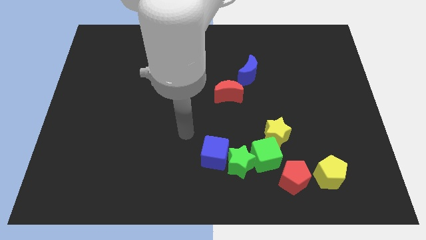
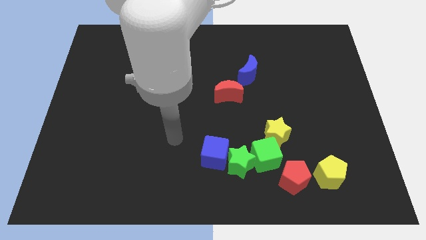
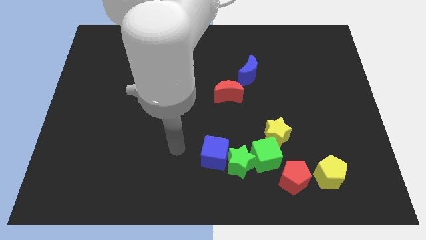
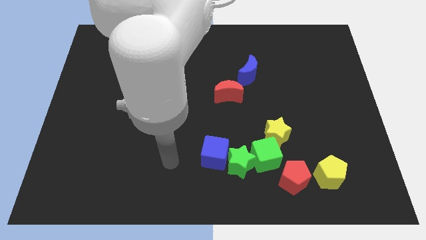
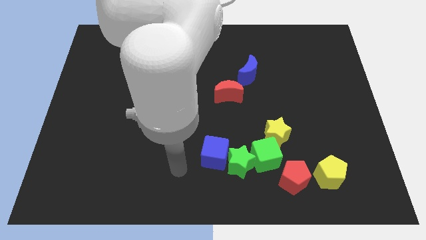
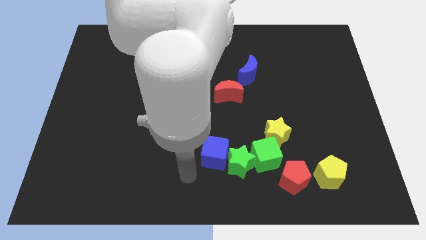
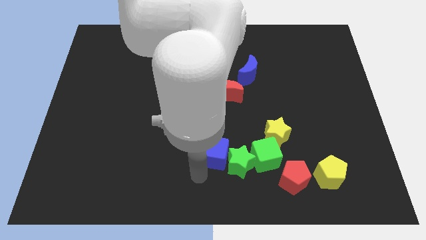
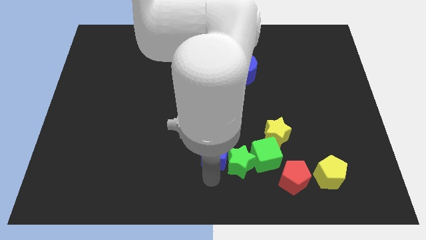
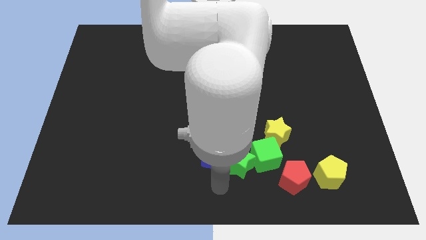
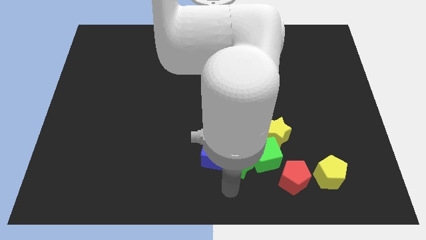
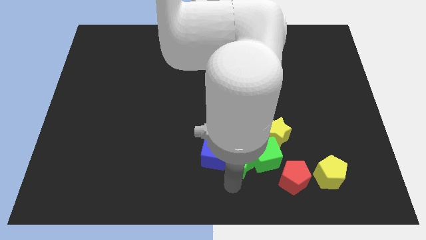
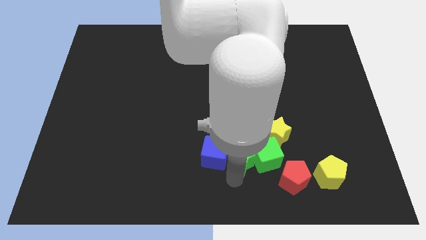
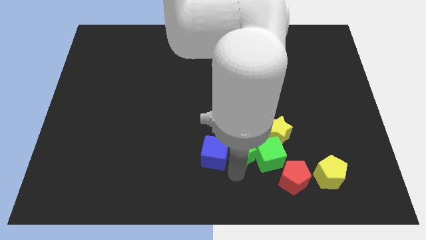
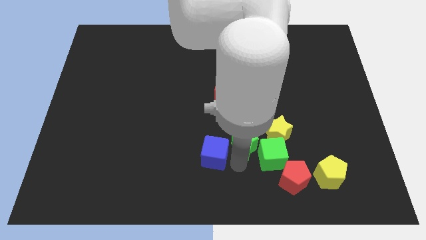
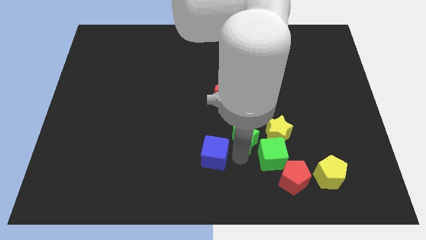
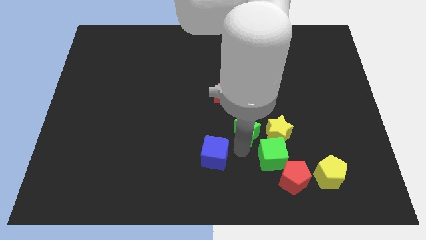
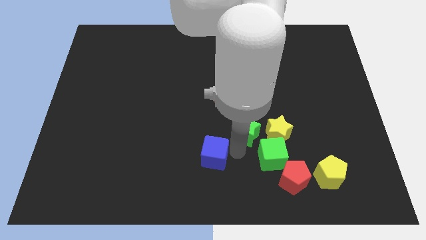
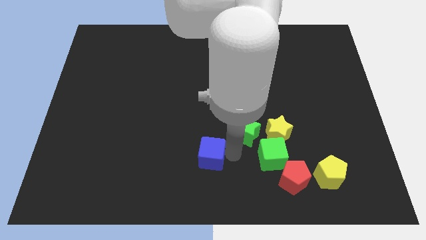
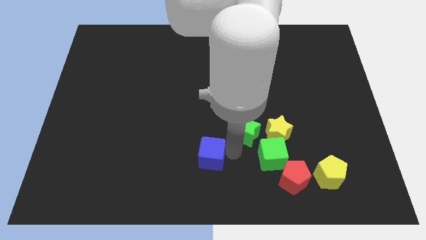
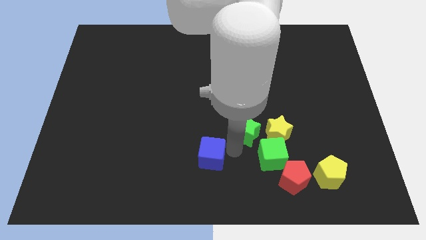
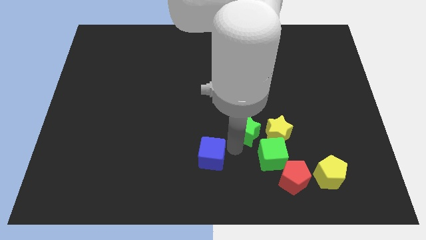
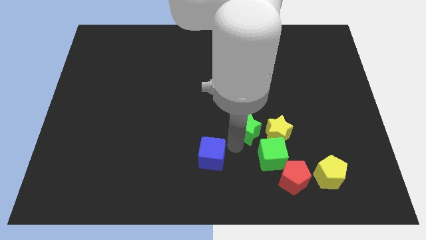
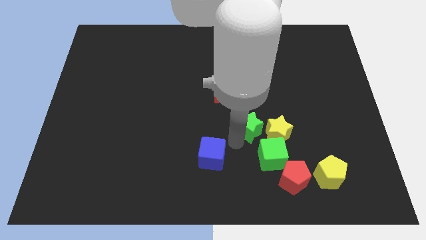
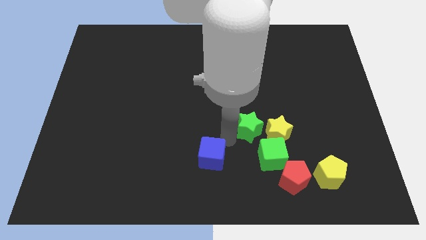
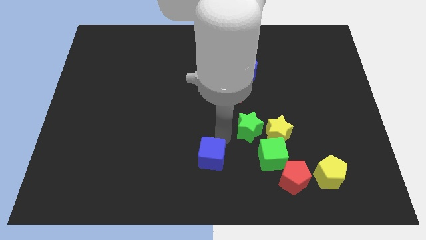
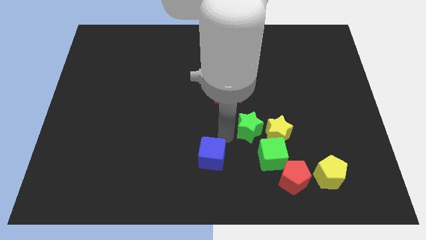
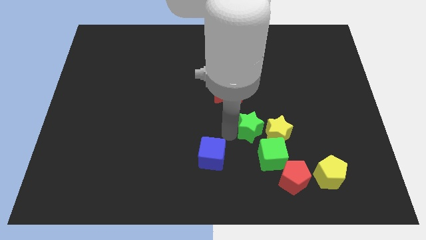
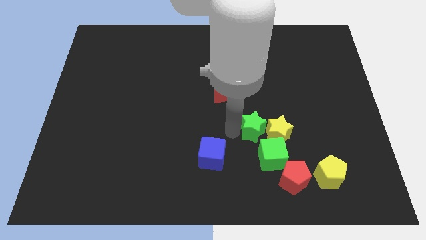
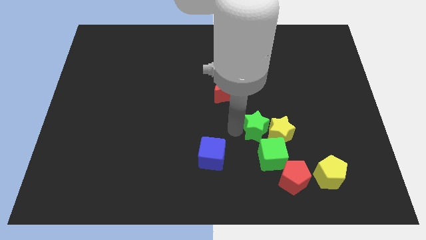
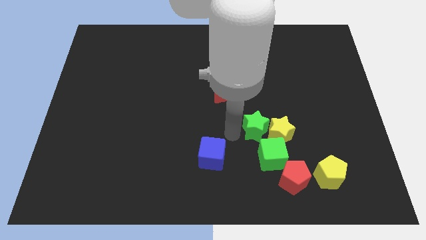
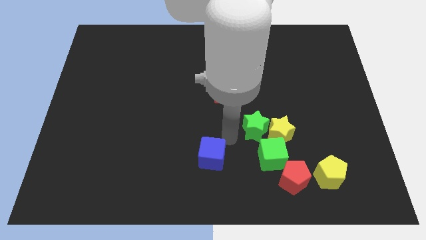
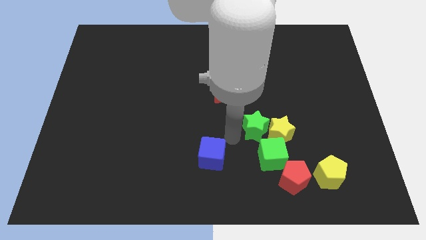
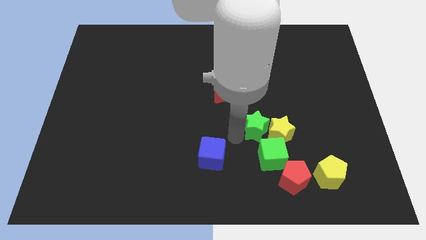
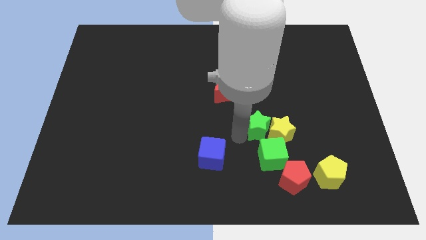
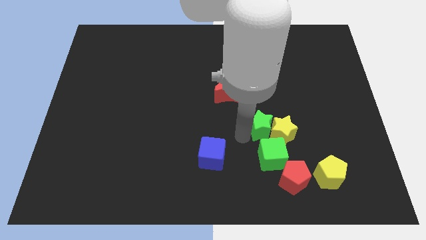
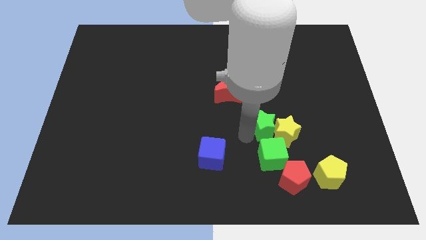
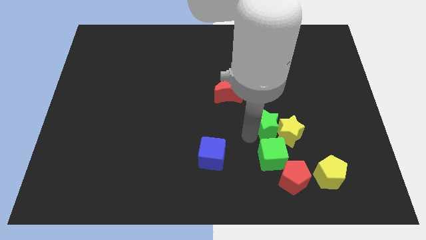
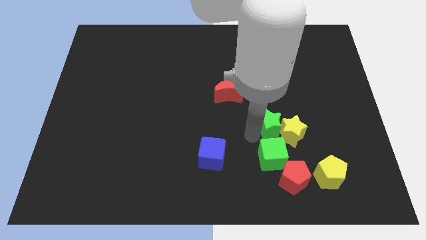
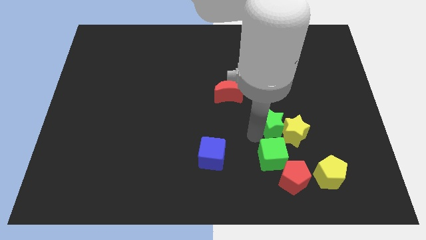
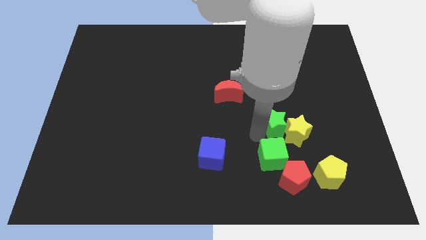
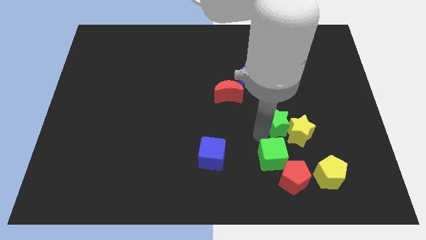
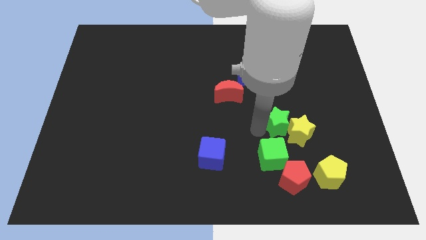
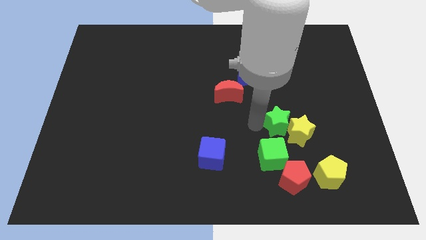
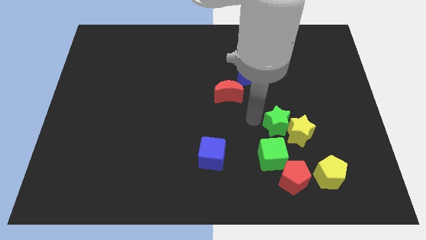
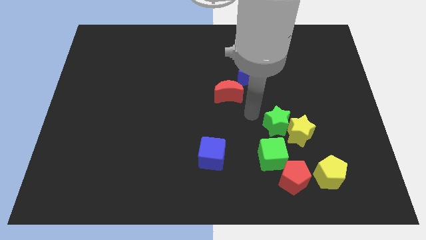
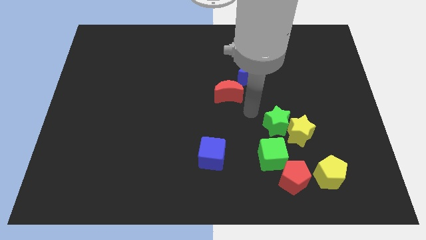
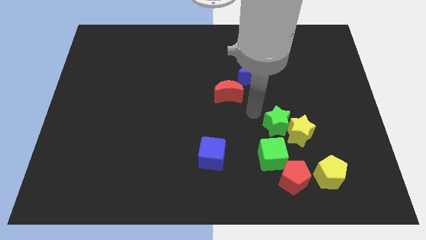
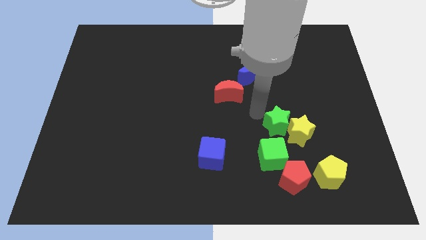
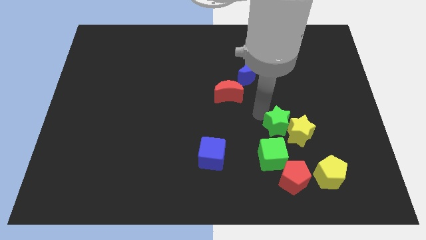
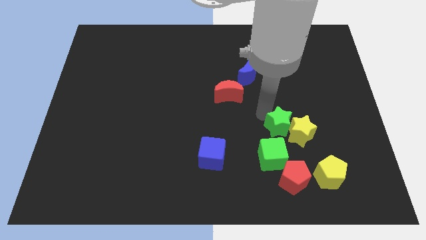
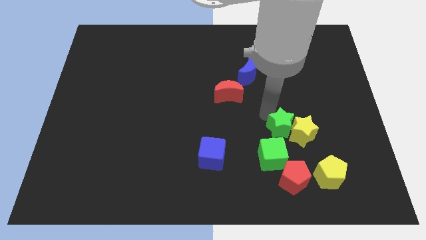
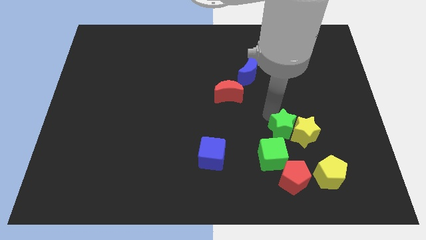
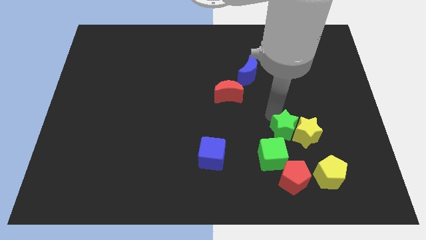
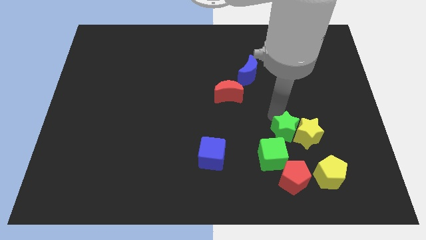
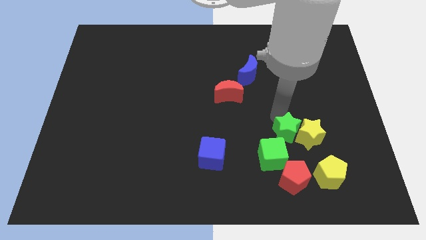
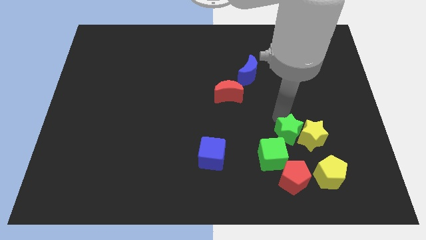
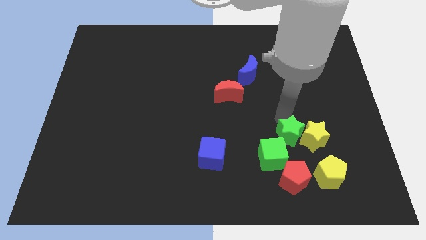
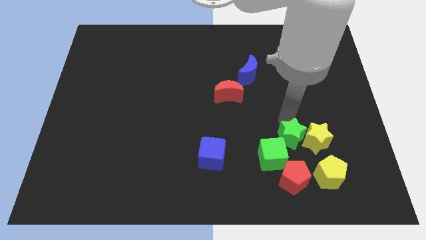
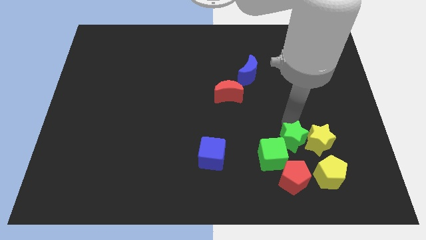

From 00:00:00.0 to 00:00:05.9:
put the green star to the right side of the green cube

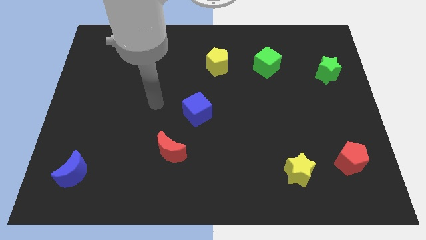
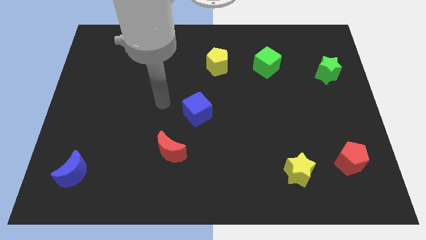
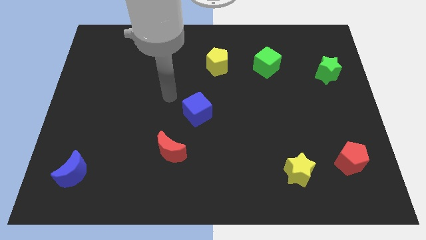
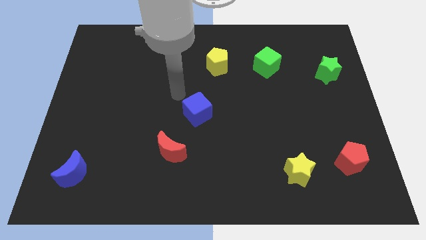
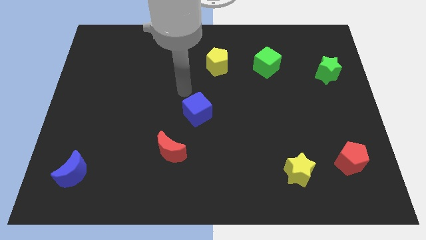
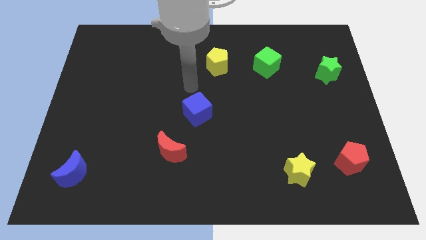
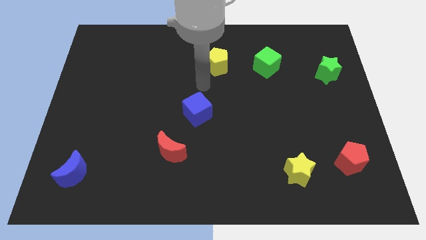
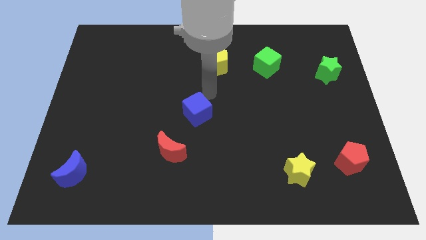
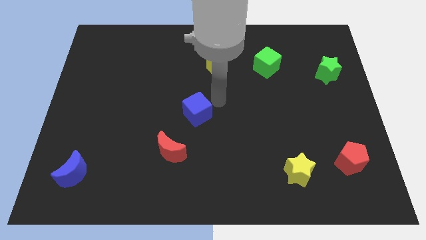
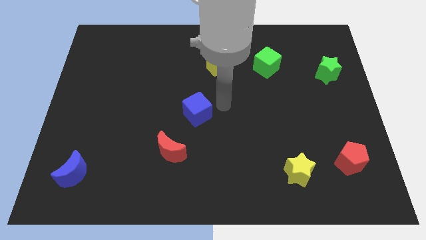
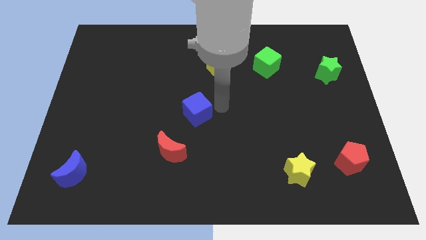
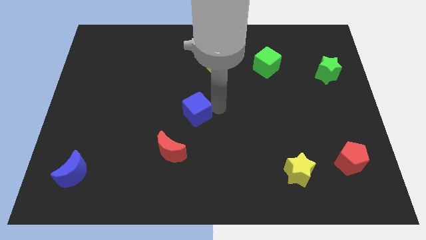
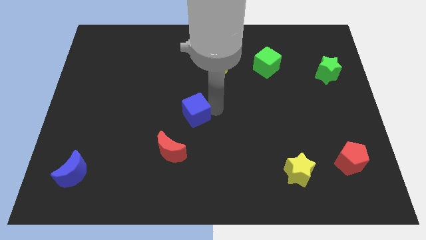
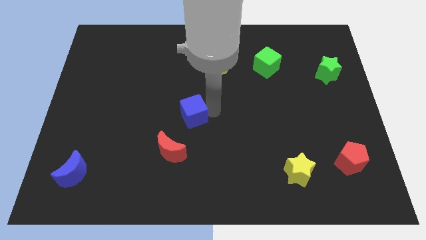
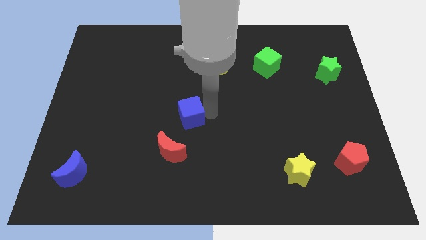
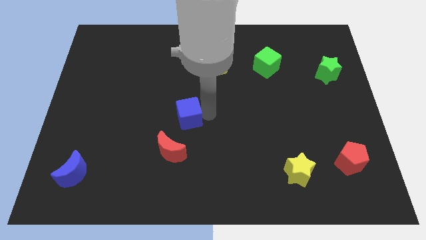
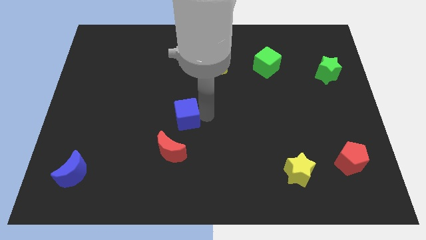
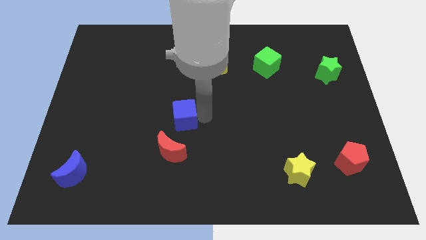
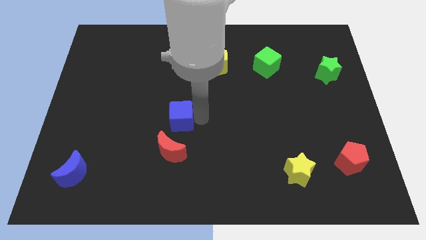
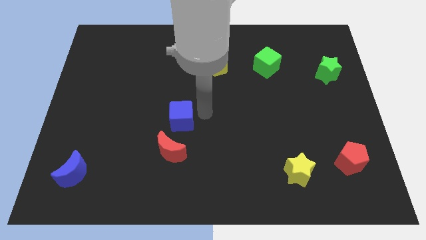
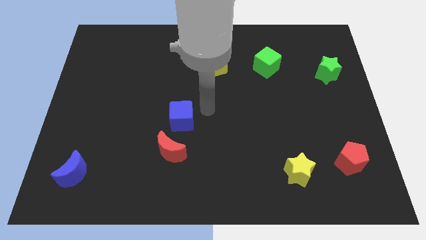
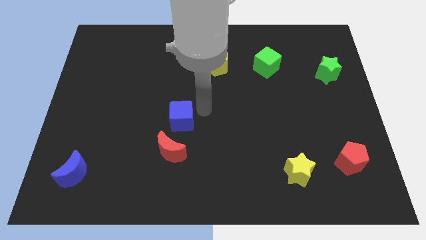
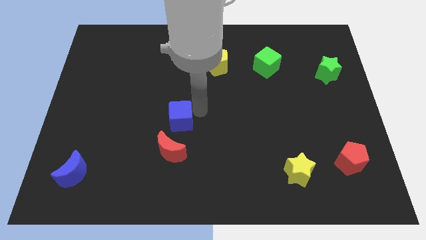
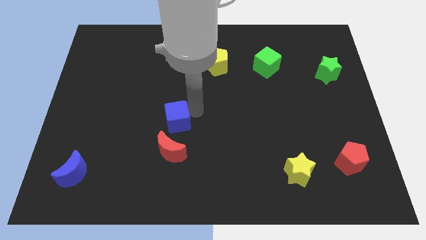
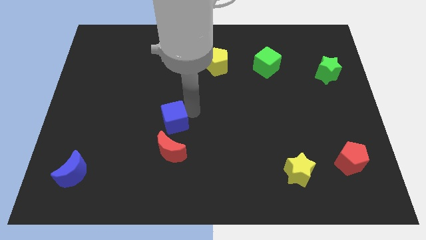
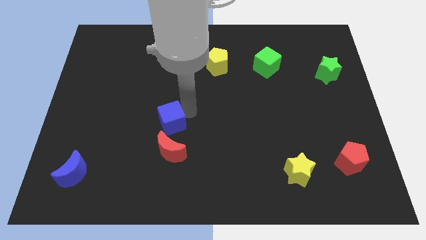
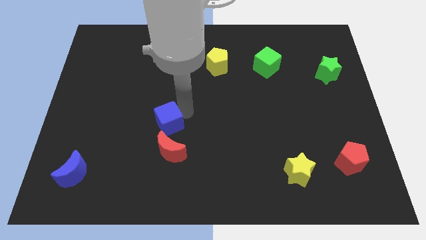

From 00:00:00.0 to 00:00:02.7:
put the blue cube to the top left side of the red moon
